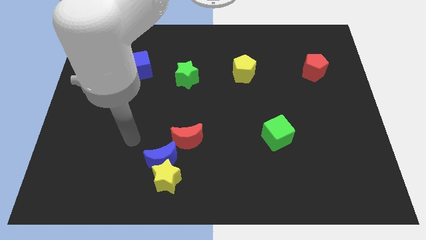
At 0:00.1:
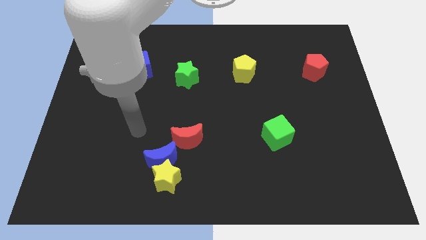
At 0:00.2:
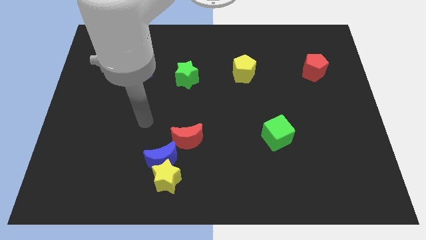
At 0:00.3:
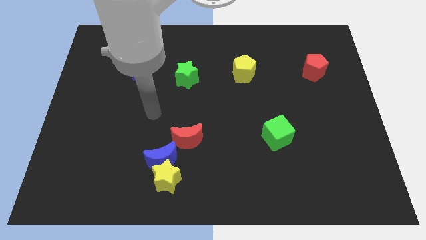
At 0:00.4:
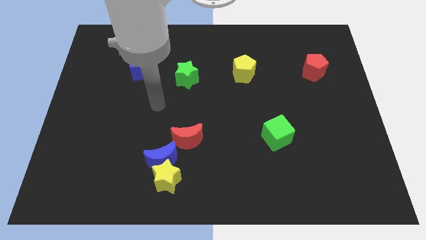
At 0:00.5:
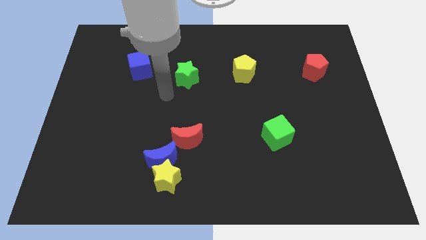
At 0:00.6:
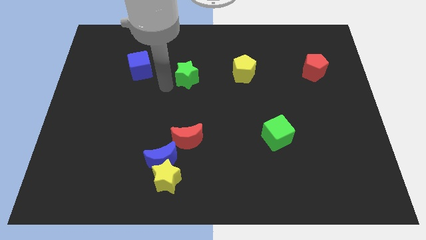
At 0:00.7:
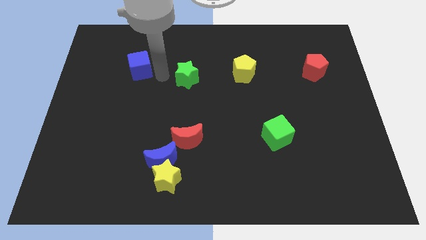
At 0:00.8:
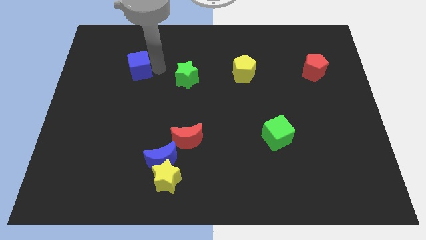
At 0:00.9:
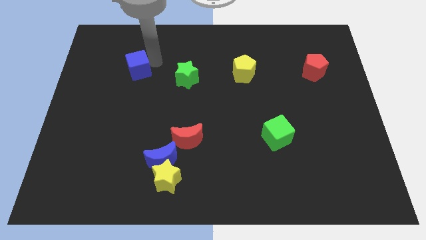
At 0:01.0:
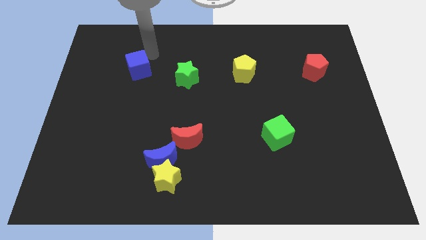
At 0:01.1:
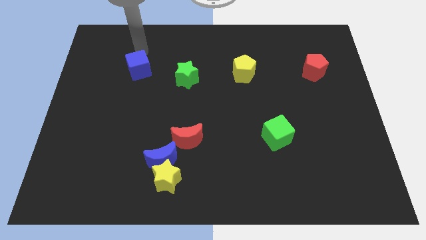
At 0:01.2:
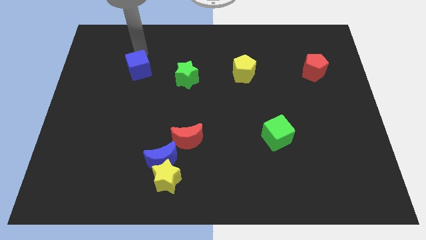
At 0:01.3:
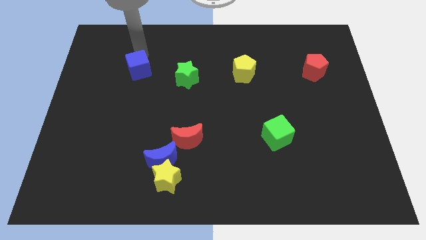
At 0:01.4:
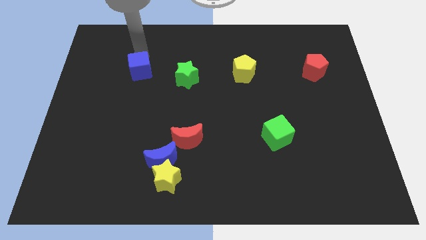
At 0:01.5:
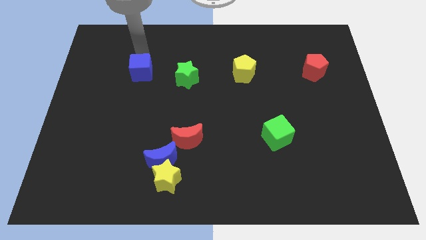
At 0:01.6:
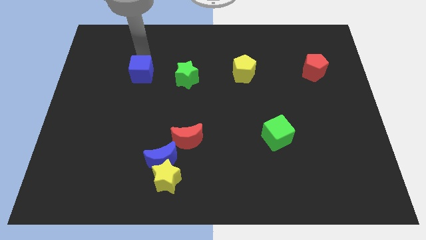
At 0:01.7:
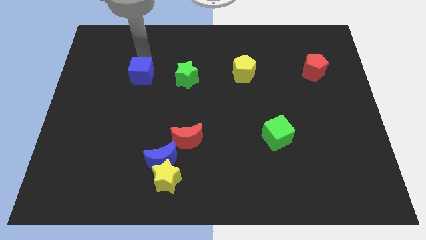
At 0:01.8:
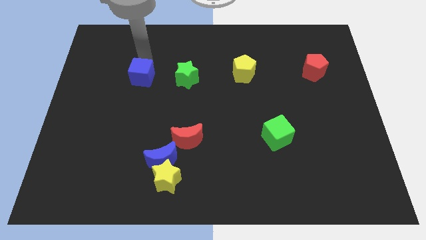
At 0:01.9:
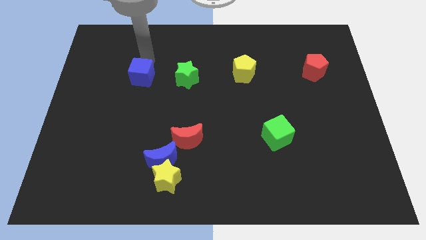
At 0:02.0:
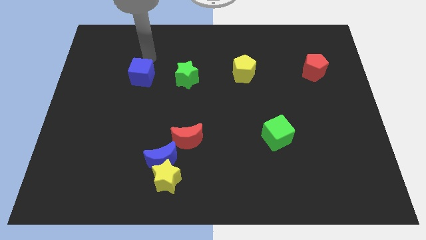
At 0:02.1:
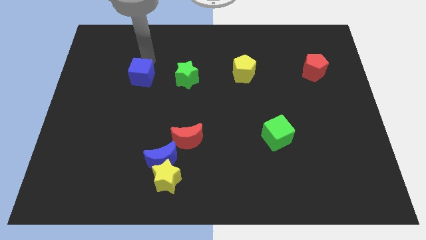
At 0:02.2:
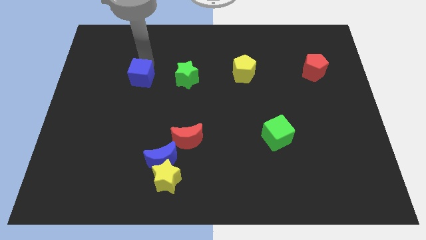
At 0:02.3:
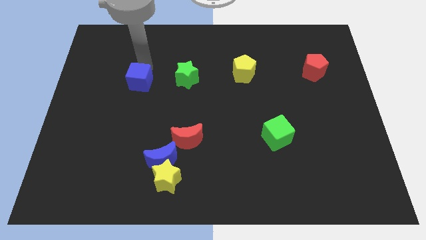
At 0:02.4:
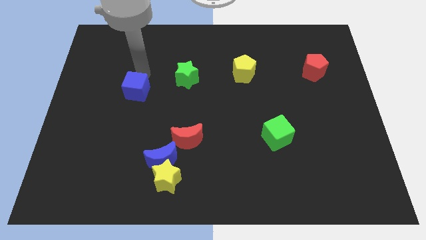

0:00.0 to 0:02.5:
move the blue cube down slightly

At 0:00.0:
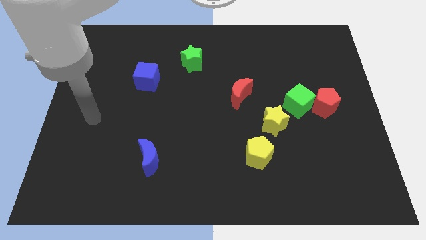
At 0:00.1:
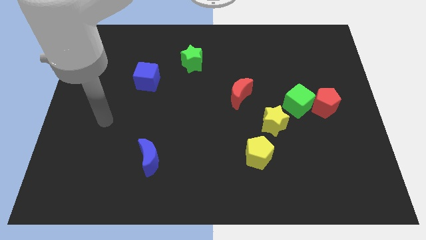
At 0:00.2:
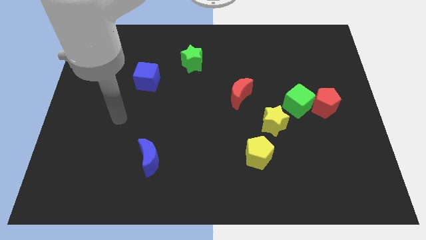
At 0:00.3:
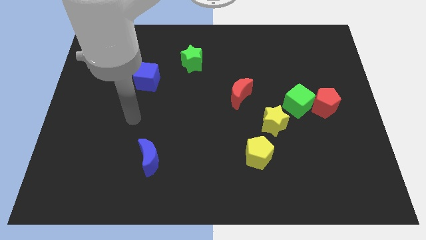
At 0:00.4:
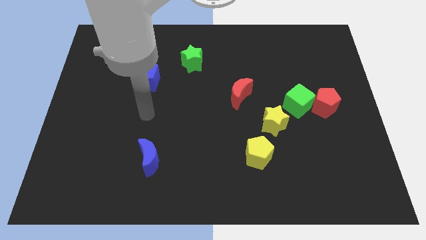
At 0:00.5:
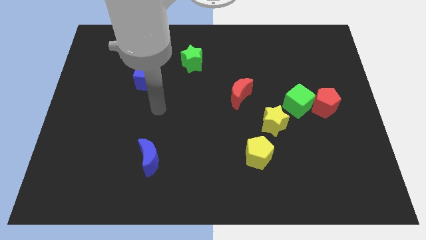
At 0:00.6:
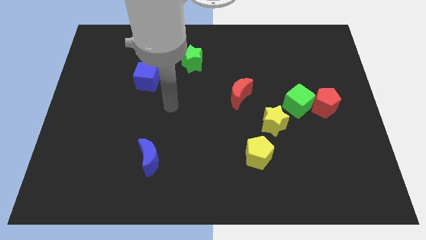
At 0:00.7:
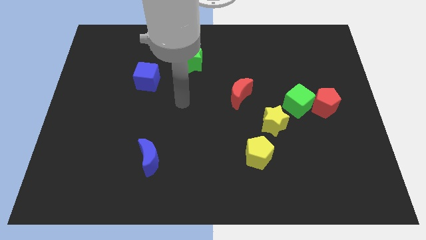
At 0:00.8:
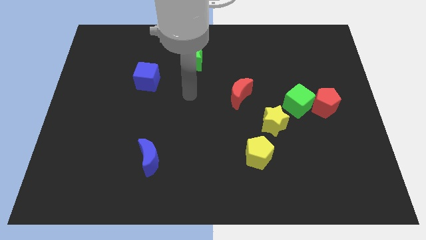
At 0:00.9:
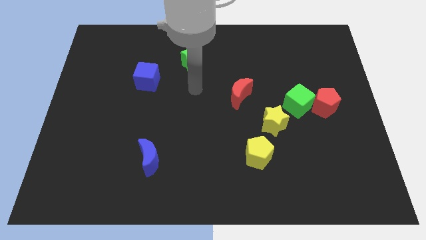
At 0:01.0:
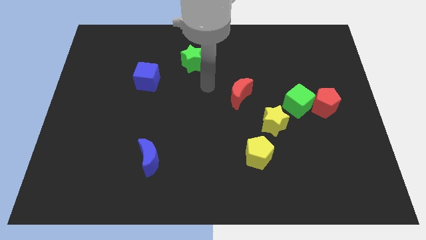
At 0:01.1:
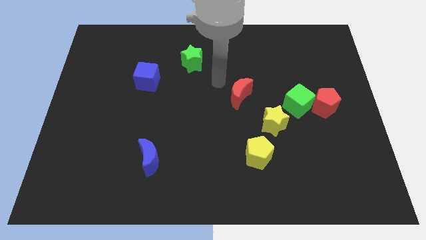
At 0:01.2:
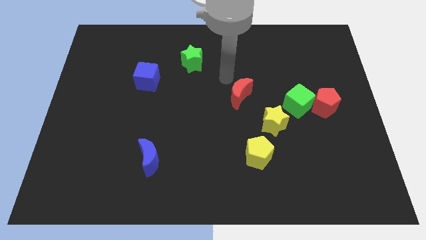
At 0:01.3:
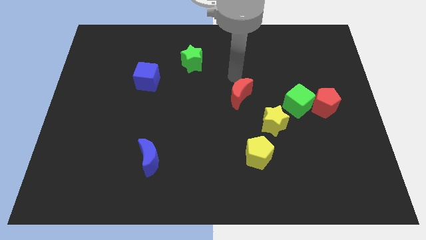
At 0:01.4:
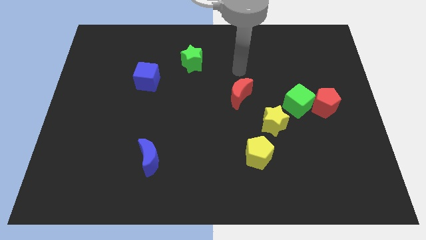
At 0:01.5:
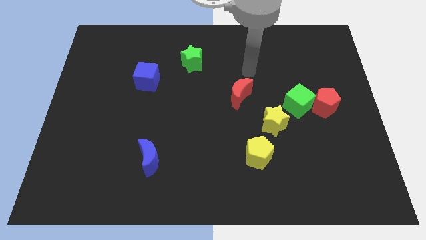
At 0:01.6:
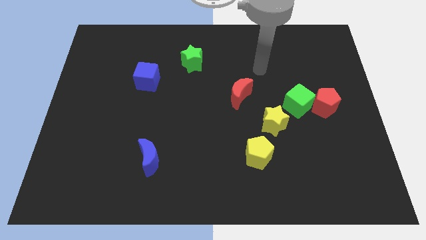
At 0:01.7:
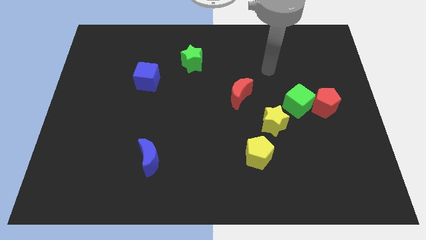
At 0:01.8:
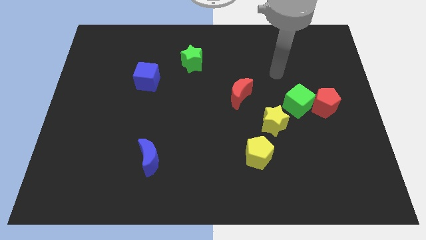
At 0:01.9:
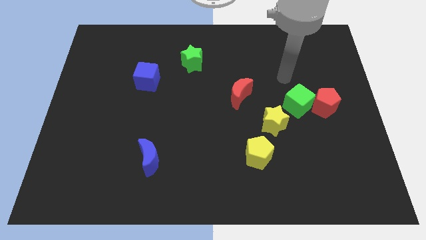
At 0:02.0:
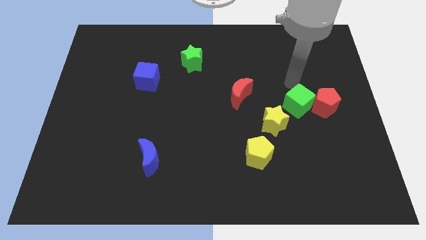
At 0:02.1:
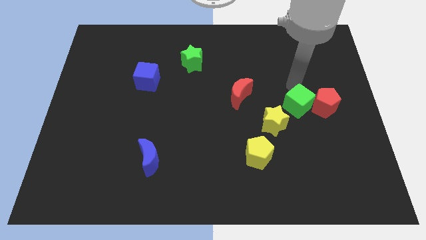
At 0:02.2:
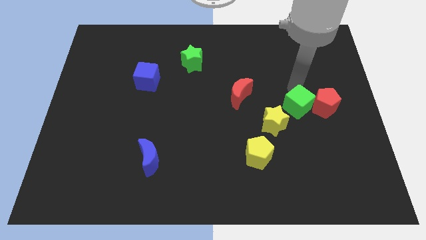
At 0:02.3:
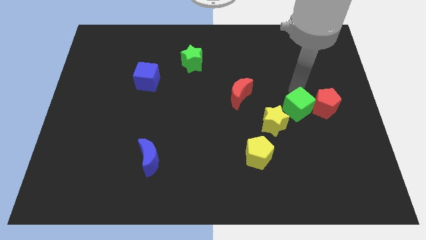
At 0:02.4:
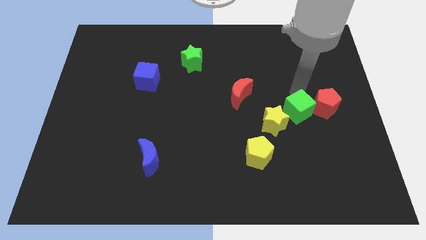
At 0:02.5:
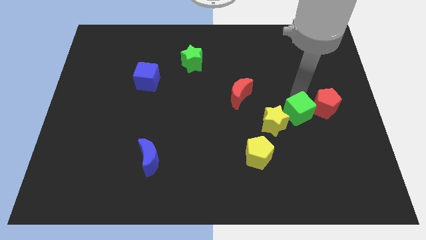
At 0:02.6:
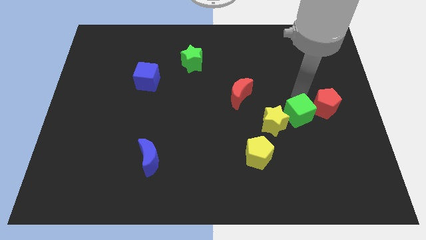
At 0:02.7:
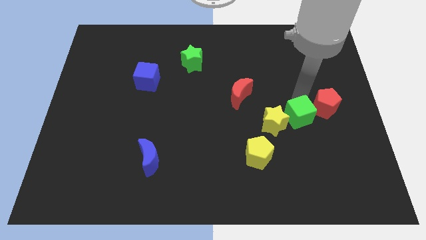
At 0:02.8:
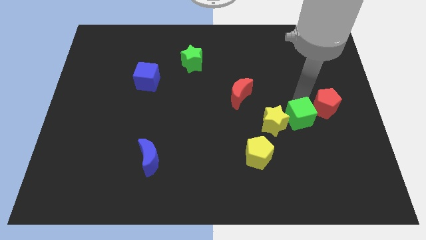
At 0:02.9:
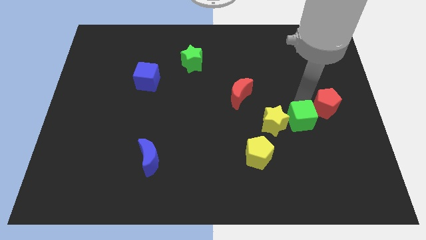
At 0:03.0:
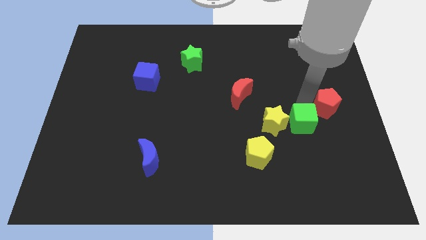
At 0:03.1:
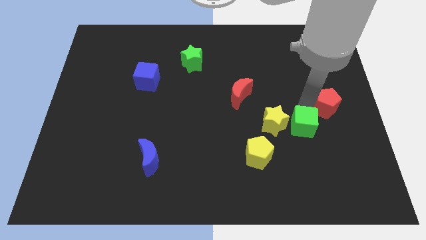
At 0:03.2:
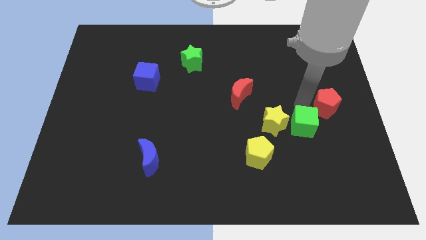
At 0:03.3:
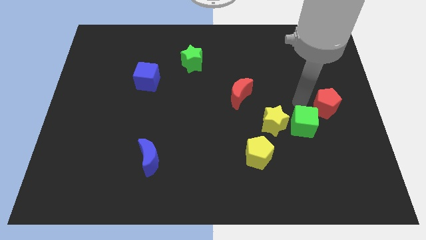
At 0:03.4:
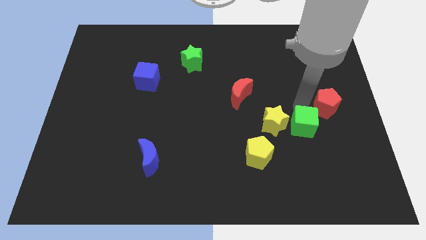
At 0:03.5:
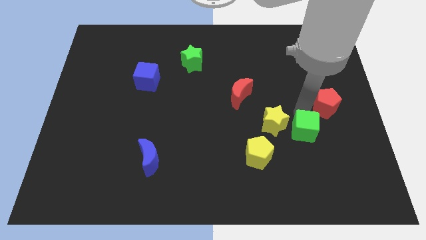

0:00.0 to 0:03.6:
slightly slide the green cube downwards

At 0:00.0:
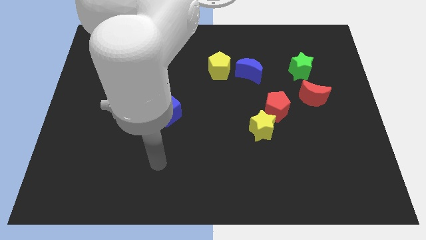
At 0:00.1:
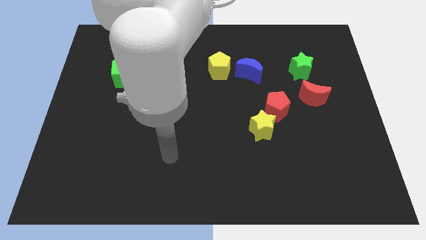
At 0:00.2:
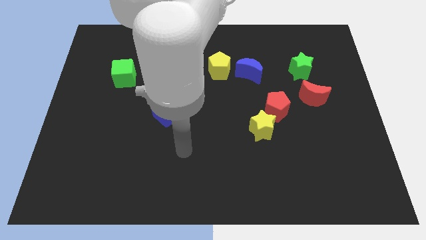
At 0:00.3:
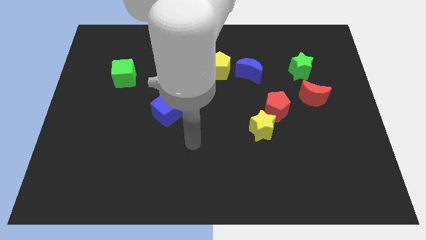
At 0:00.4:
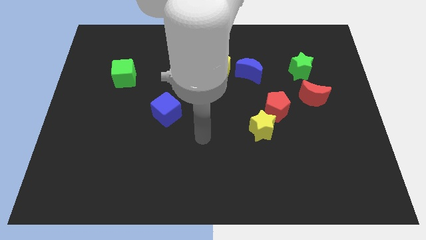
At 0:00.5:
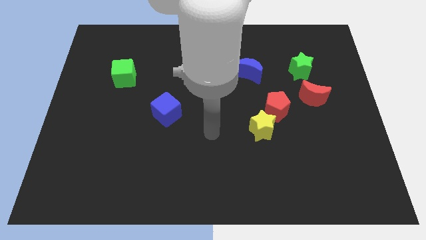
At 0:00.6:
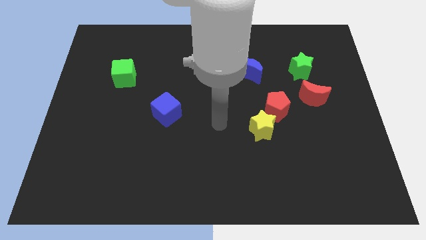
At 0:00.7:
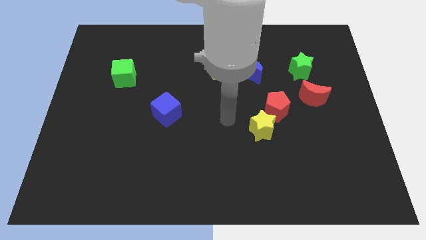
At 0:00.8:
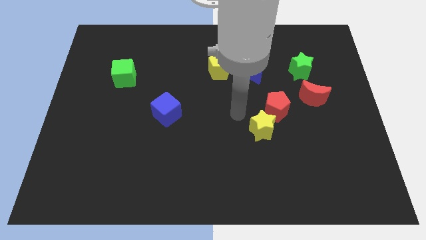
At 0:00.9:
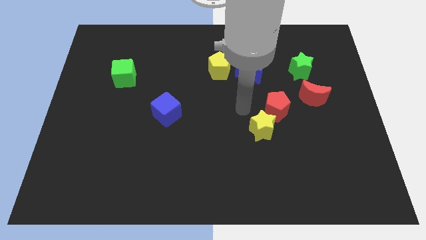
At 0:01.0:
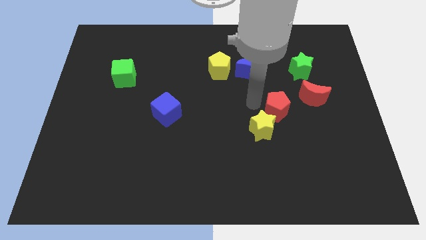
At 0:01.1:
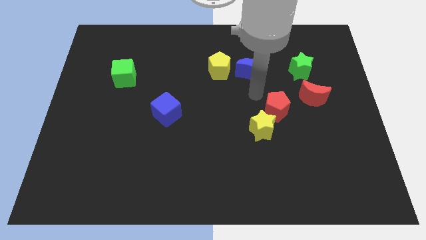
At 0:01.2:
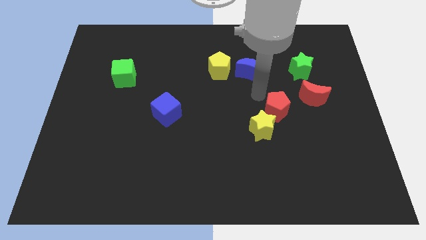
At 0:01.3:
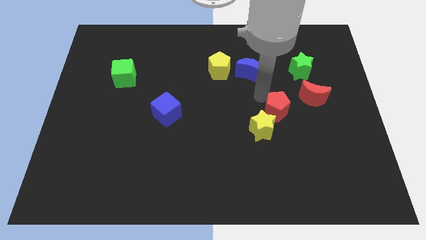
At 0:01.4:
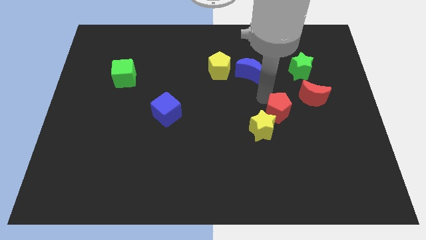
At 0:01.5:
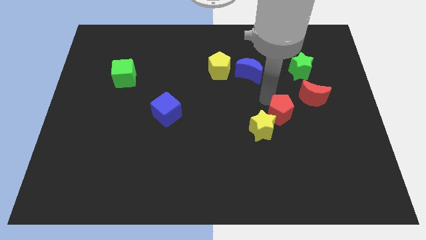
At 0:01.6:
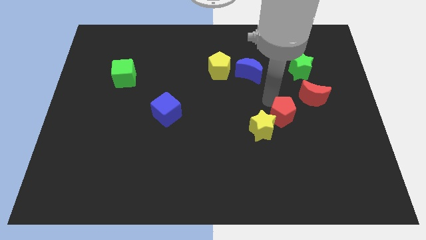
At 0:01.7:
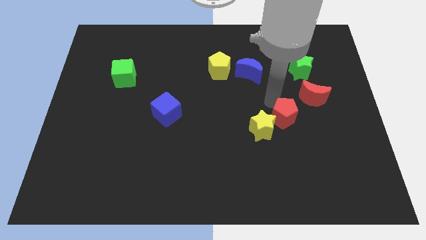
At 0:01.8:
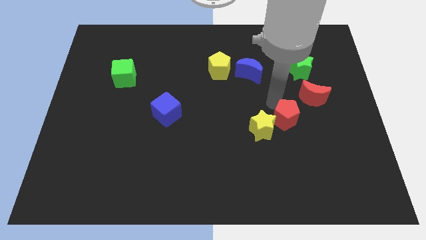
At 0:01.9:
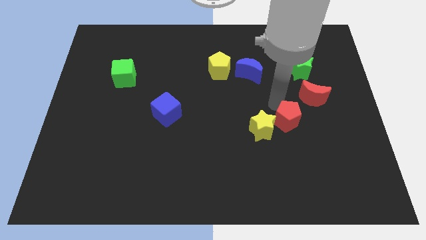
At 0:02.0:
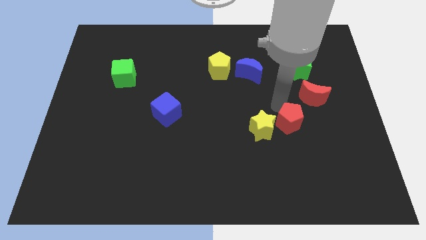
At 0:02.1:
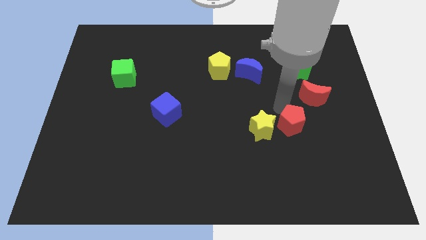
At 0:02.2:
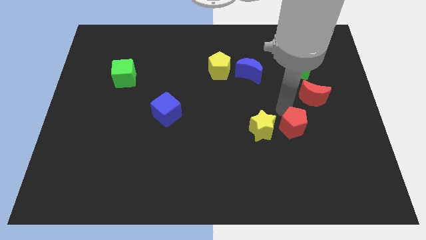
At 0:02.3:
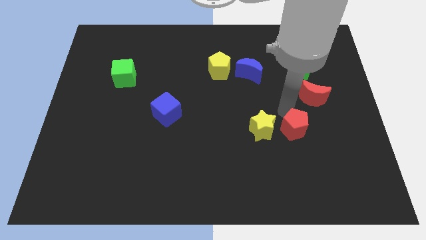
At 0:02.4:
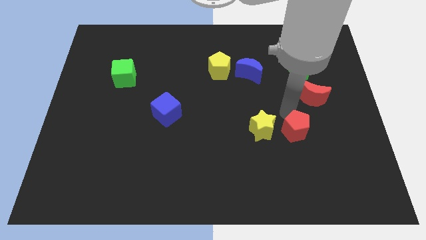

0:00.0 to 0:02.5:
push the red pentagon slightly downwards and to the right diagonally
